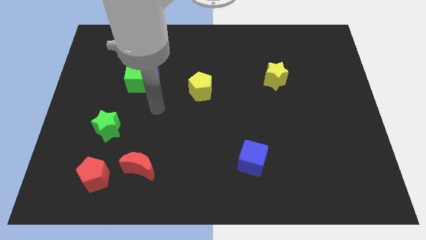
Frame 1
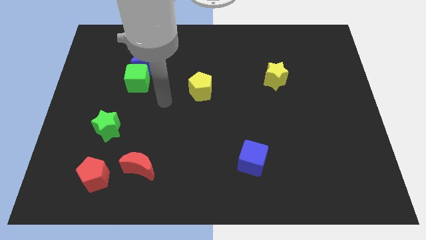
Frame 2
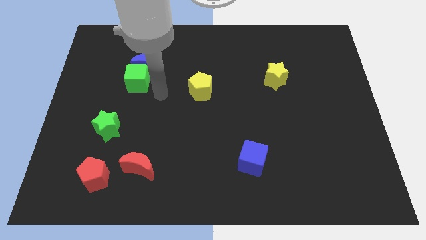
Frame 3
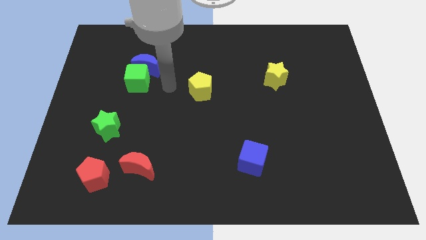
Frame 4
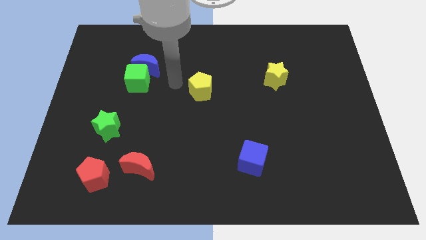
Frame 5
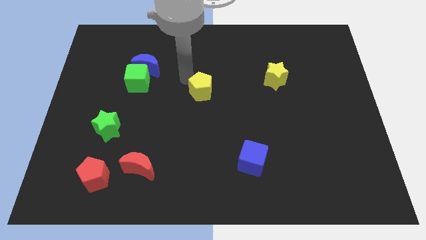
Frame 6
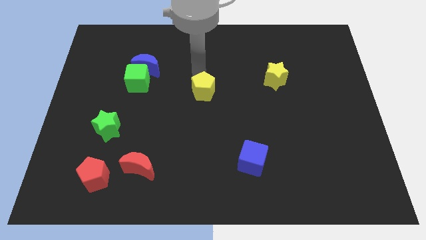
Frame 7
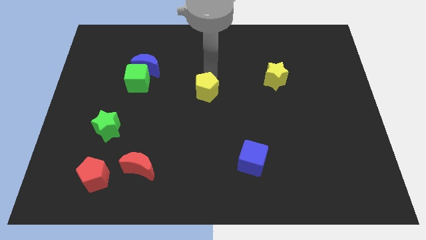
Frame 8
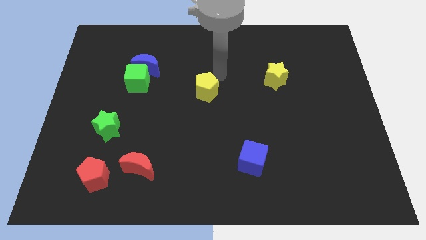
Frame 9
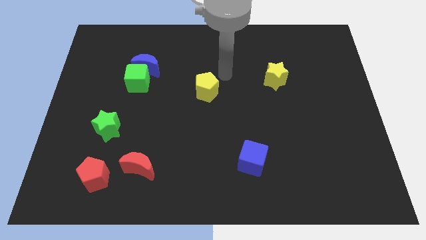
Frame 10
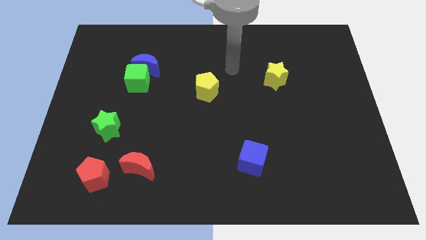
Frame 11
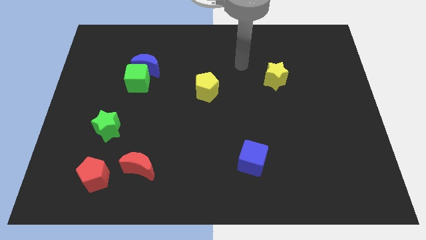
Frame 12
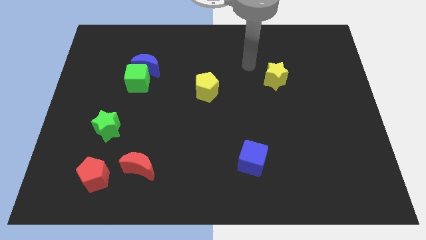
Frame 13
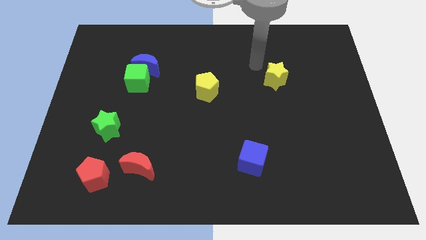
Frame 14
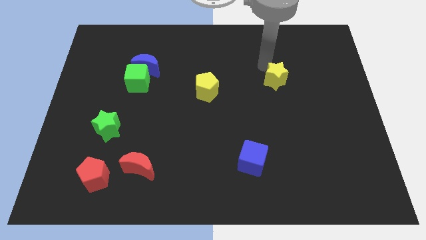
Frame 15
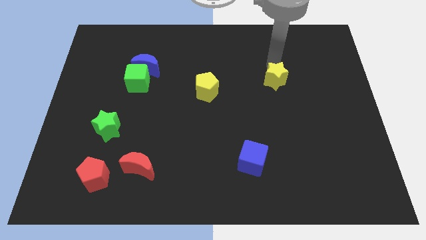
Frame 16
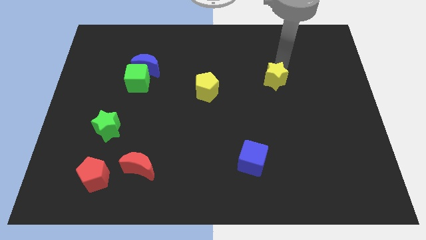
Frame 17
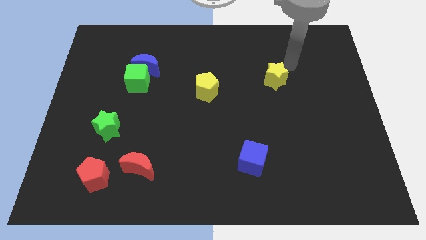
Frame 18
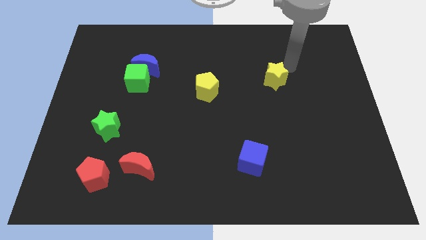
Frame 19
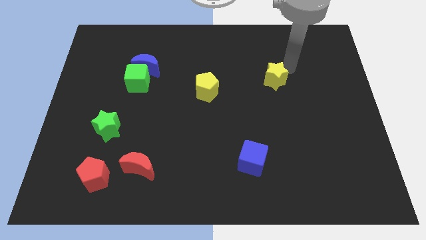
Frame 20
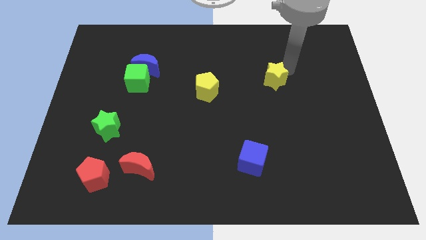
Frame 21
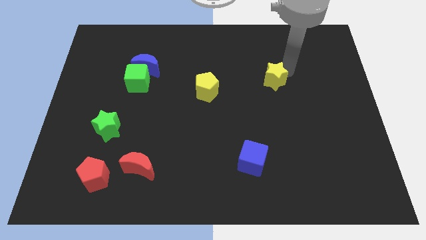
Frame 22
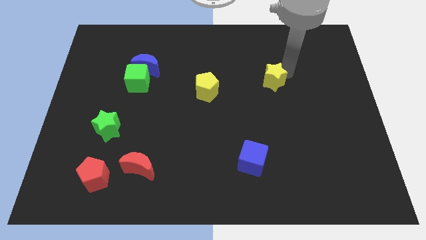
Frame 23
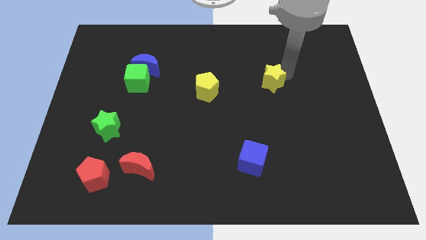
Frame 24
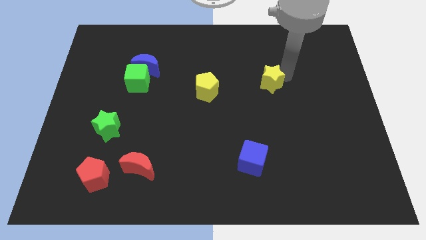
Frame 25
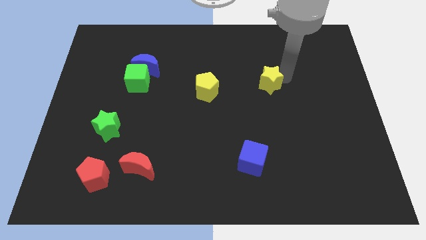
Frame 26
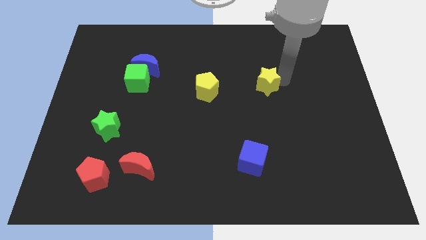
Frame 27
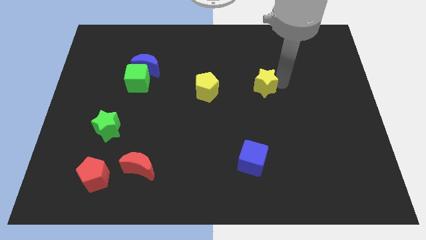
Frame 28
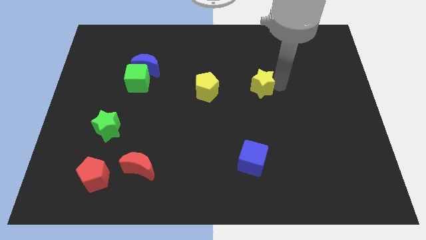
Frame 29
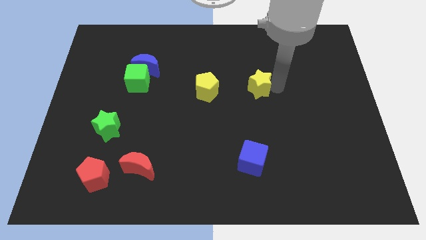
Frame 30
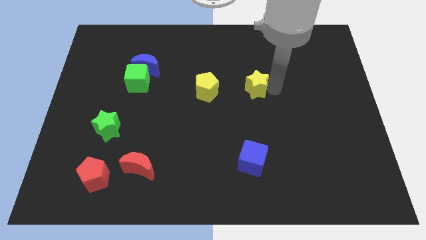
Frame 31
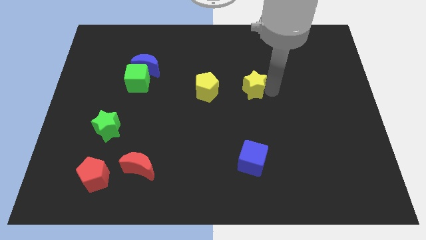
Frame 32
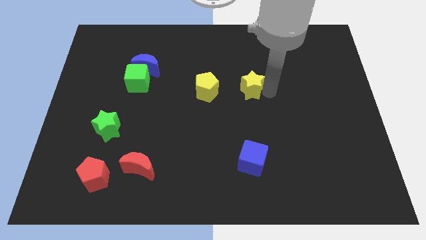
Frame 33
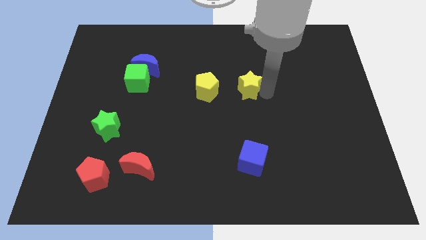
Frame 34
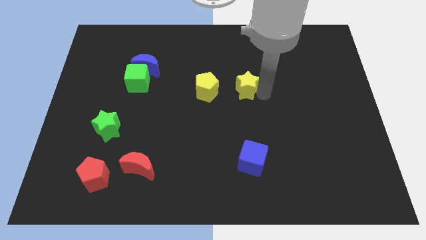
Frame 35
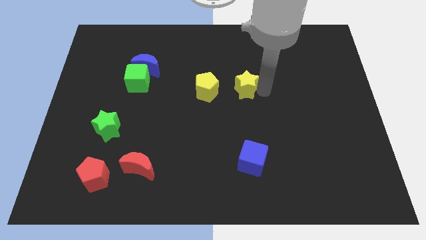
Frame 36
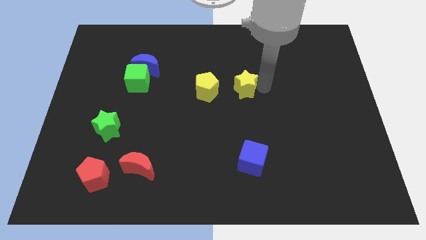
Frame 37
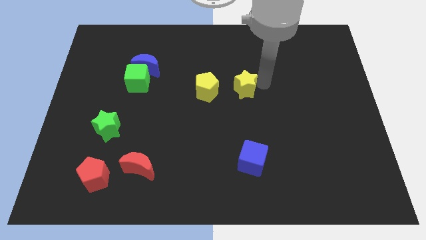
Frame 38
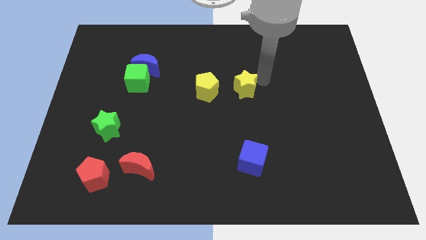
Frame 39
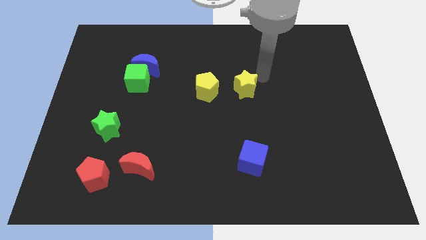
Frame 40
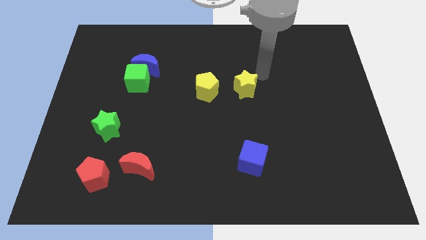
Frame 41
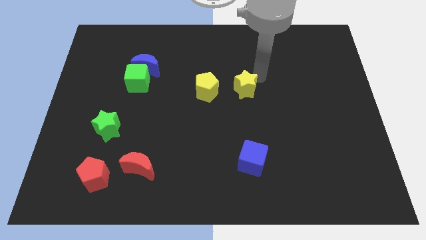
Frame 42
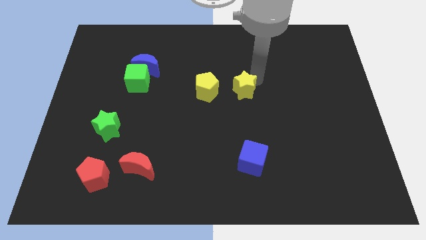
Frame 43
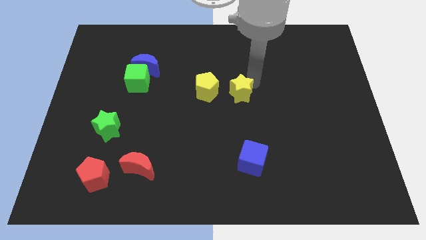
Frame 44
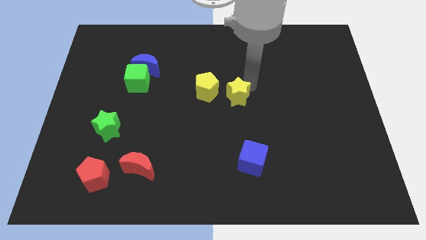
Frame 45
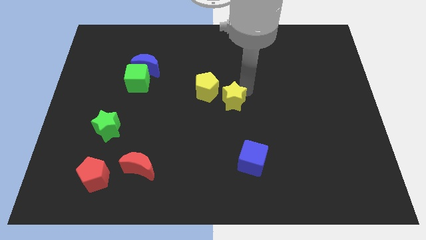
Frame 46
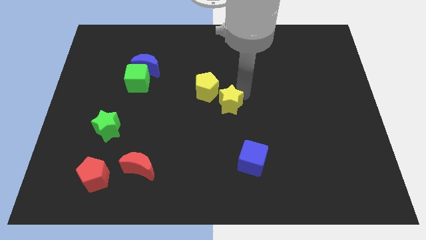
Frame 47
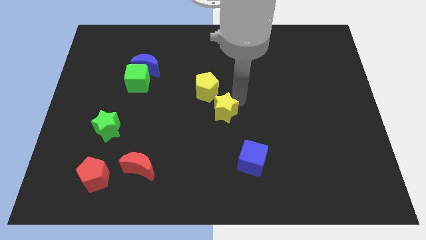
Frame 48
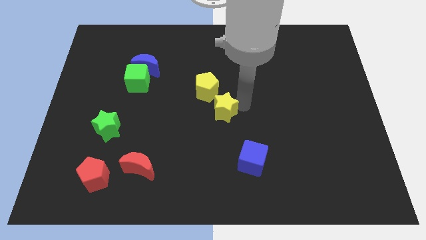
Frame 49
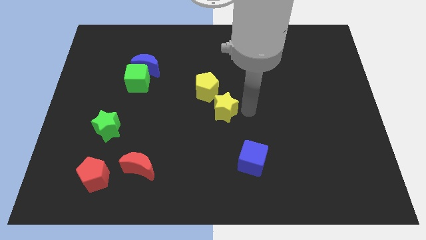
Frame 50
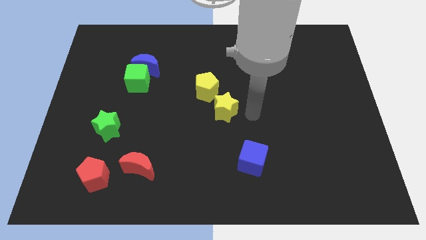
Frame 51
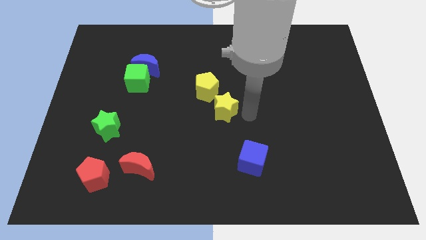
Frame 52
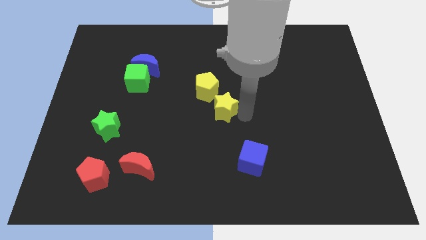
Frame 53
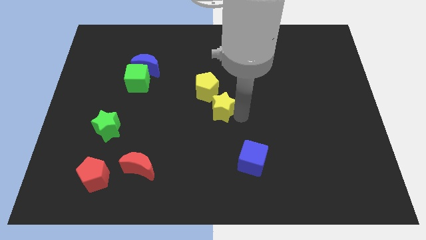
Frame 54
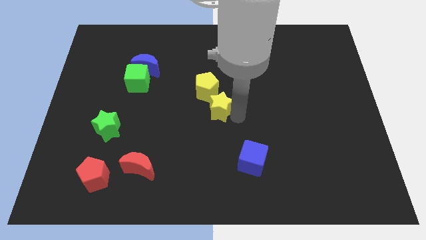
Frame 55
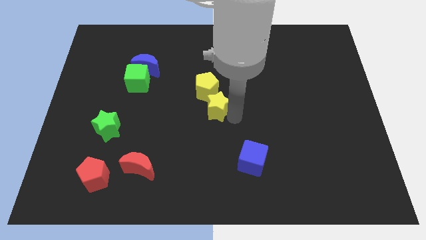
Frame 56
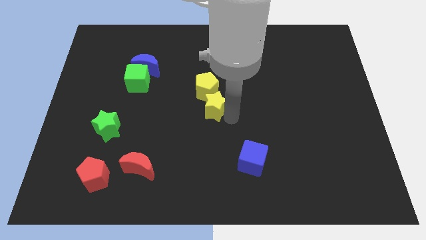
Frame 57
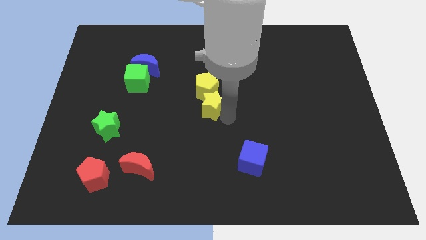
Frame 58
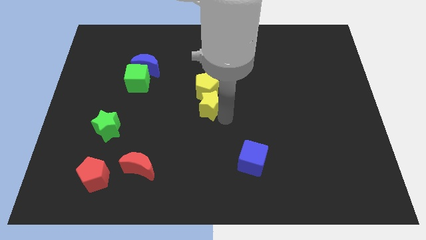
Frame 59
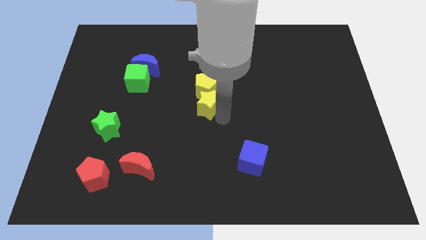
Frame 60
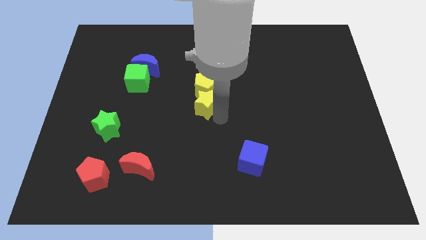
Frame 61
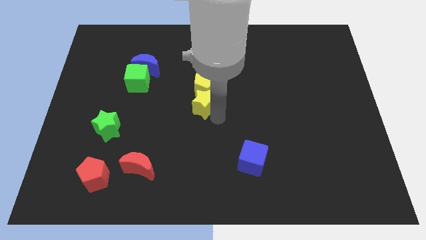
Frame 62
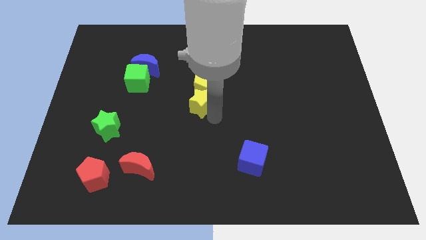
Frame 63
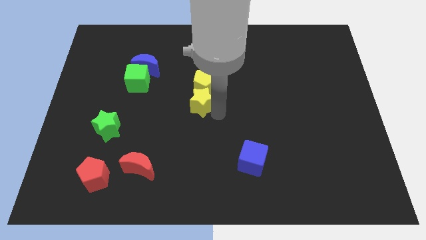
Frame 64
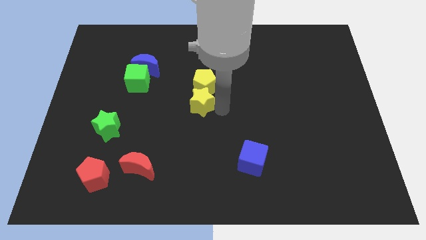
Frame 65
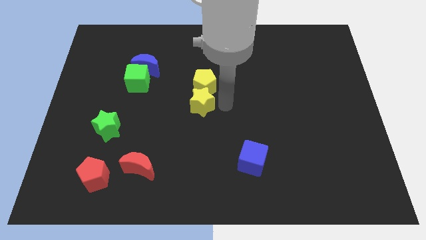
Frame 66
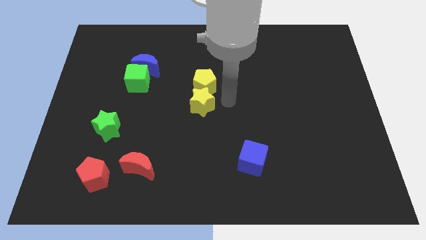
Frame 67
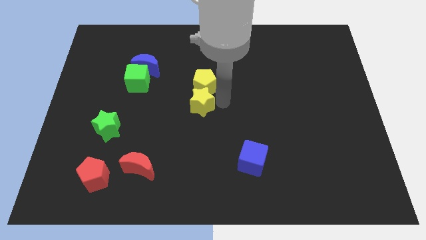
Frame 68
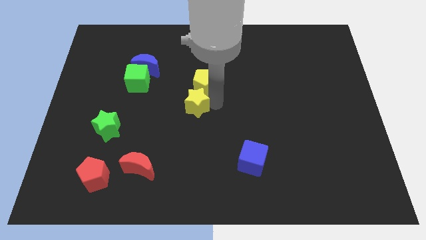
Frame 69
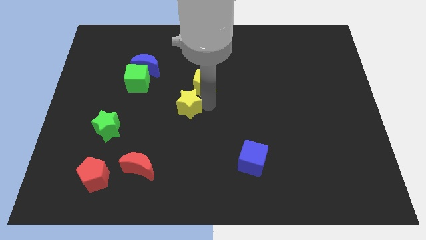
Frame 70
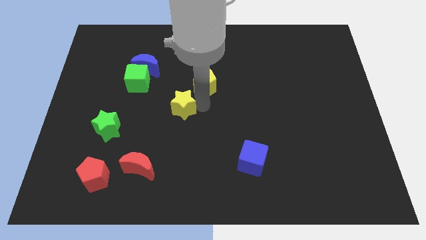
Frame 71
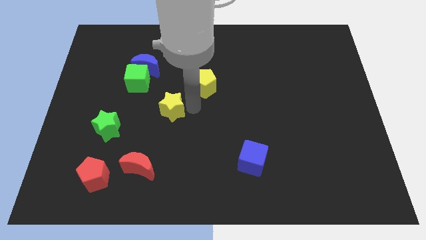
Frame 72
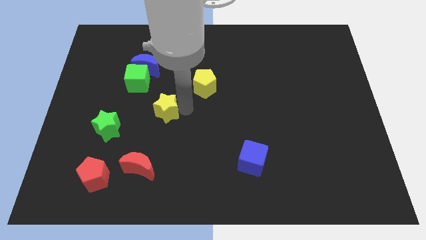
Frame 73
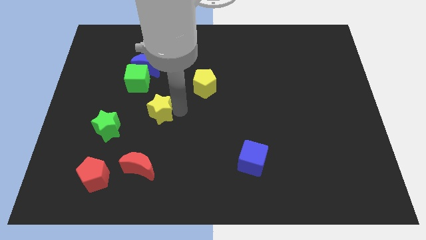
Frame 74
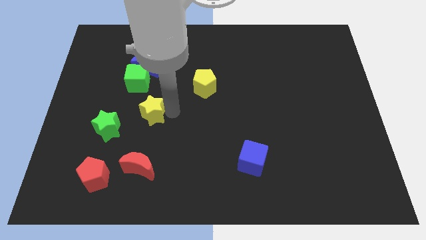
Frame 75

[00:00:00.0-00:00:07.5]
put the yellow star to the bottom of the green cube
